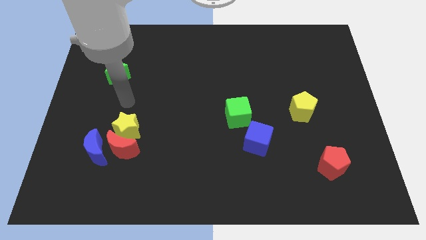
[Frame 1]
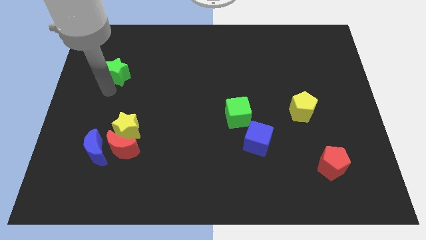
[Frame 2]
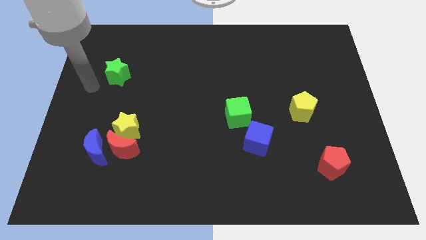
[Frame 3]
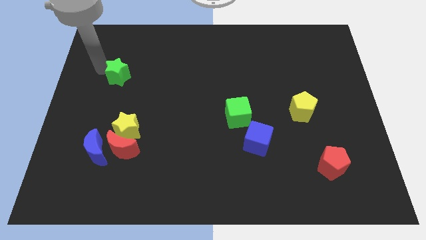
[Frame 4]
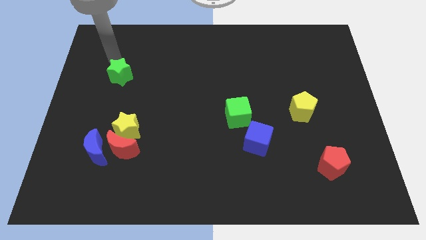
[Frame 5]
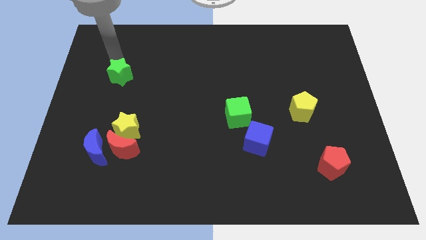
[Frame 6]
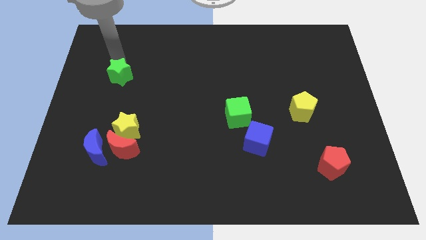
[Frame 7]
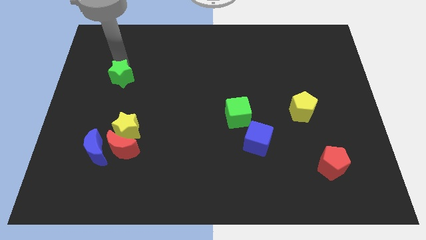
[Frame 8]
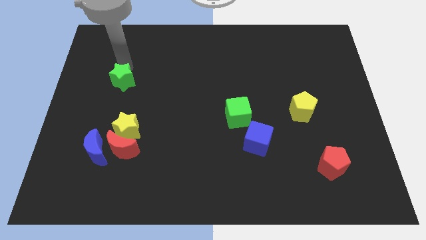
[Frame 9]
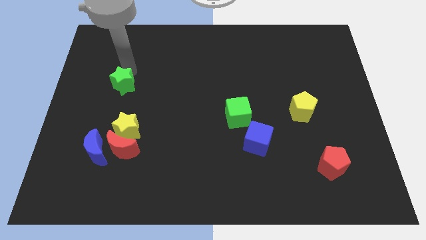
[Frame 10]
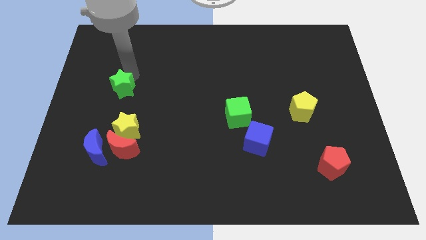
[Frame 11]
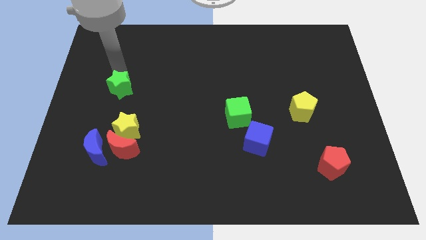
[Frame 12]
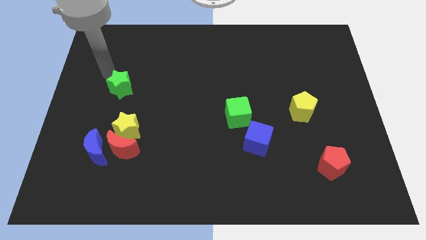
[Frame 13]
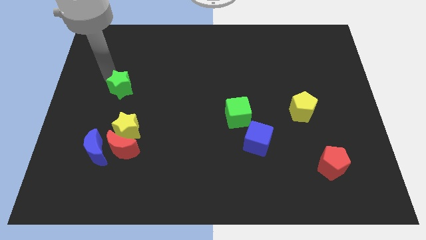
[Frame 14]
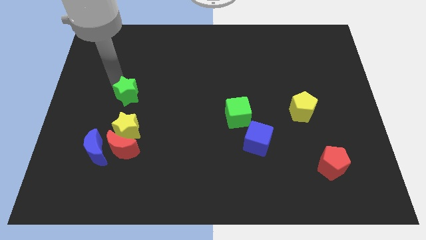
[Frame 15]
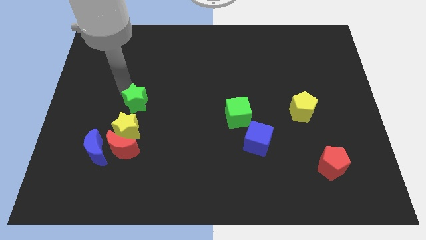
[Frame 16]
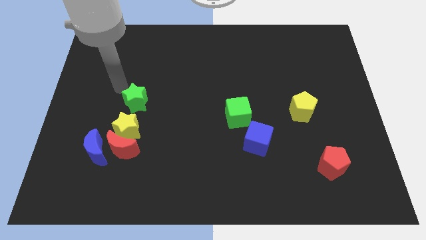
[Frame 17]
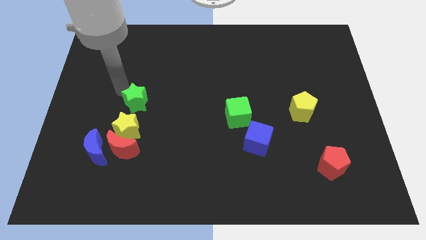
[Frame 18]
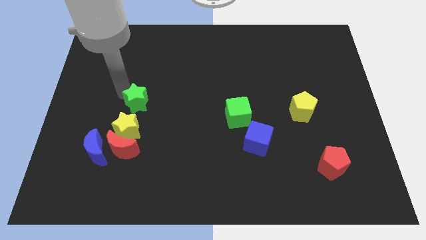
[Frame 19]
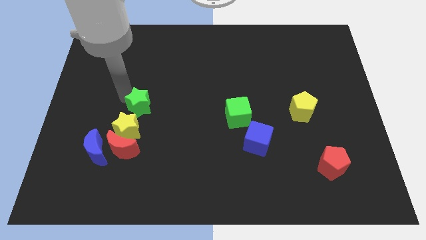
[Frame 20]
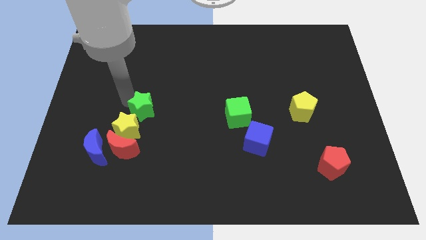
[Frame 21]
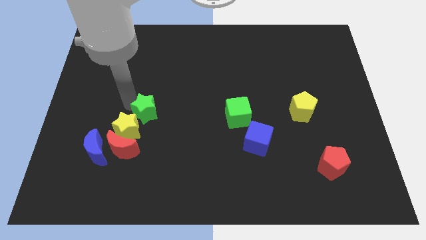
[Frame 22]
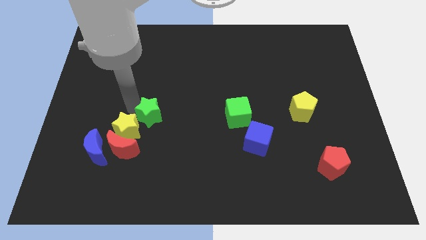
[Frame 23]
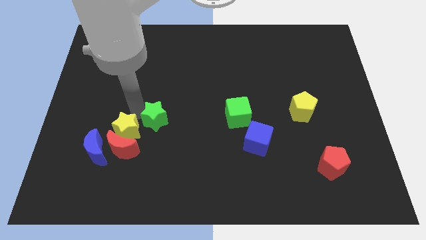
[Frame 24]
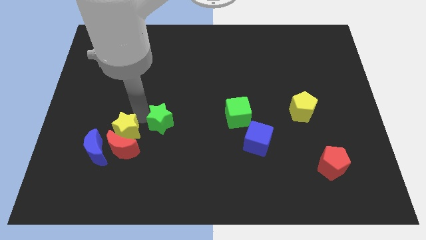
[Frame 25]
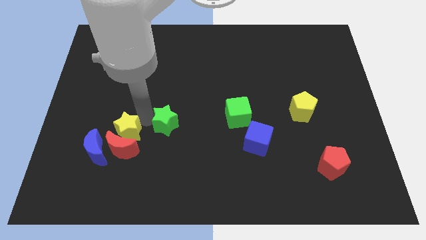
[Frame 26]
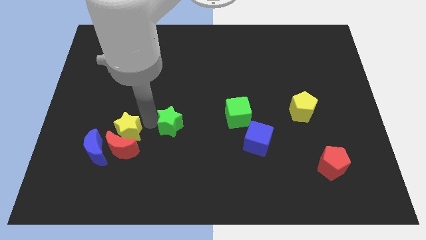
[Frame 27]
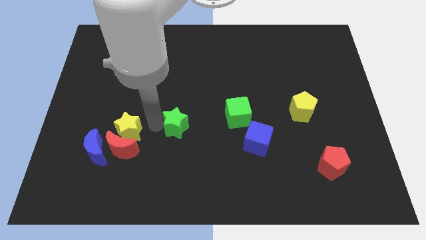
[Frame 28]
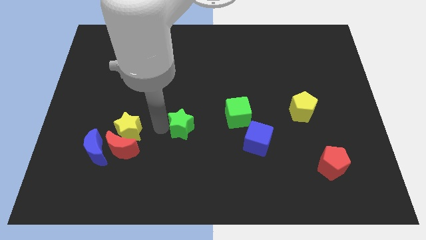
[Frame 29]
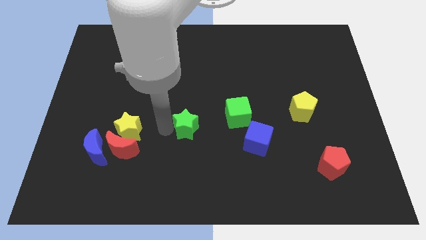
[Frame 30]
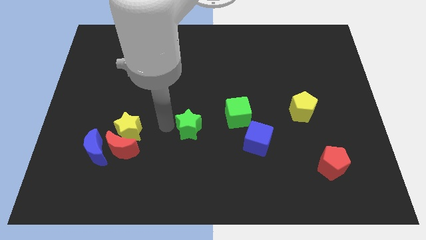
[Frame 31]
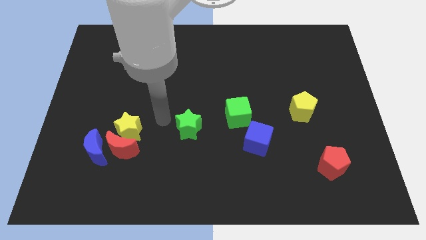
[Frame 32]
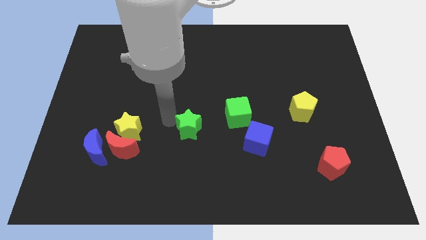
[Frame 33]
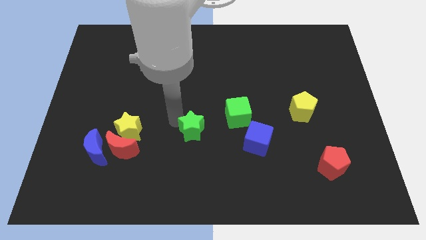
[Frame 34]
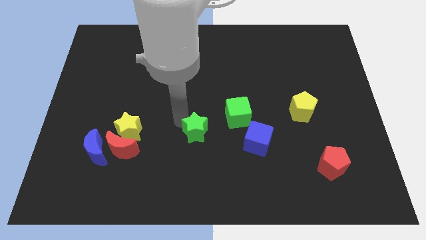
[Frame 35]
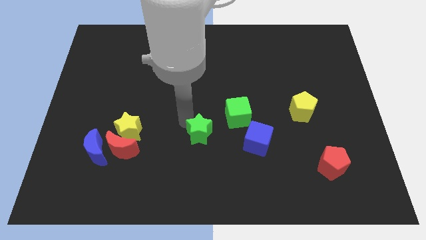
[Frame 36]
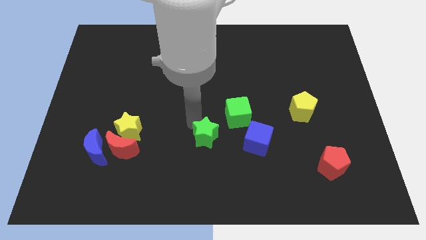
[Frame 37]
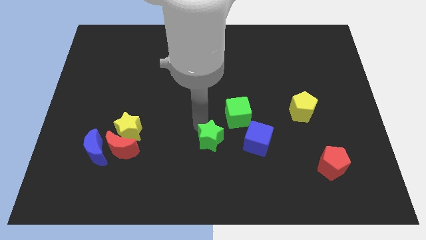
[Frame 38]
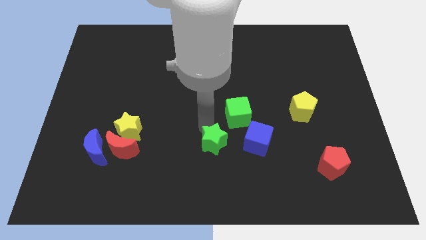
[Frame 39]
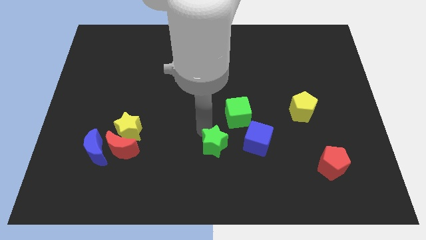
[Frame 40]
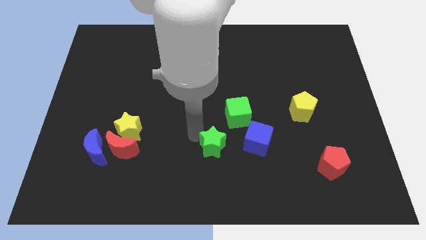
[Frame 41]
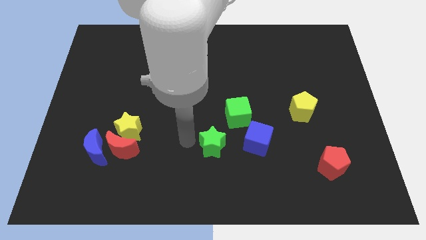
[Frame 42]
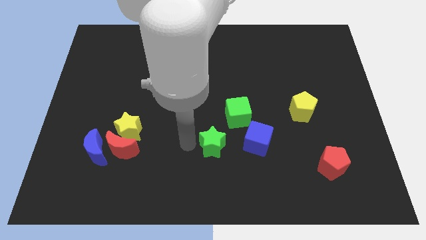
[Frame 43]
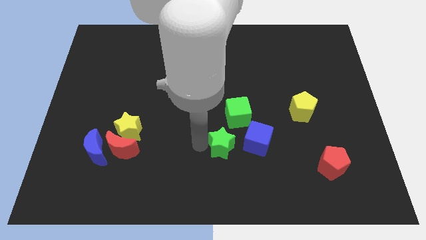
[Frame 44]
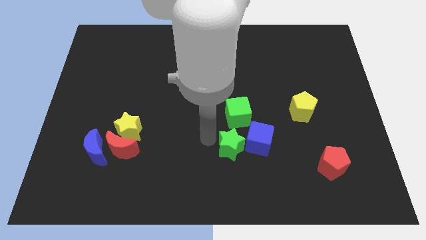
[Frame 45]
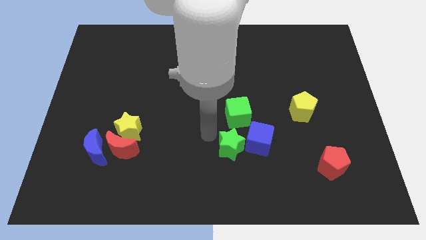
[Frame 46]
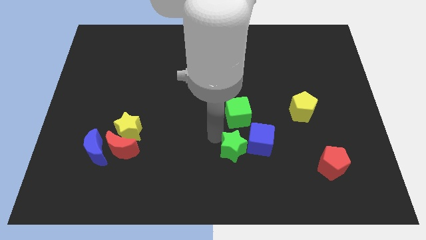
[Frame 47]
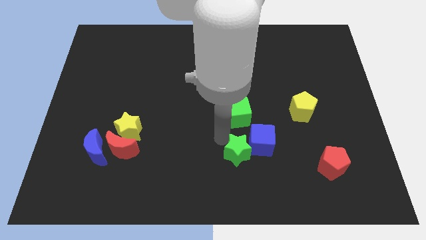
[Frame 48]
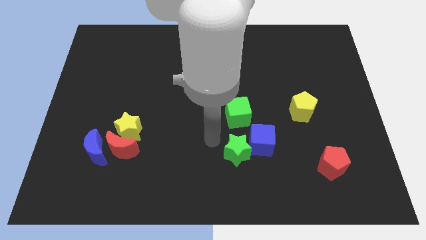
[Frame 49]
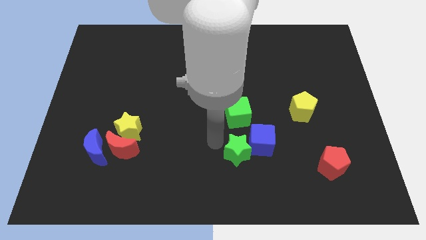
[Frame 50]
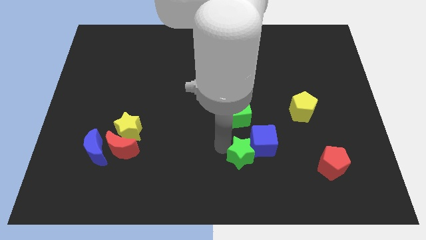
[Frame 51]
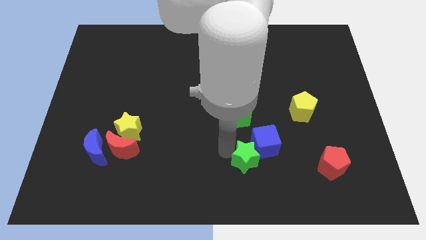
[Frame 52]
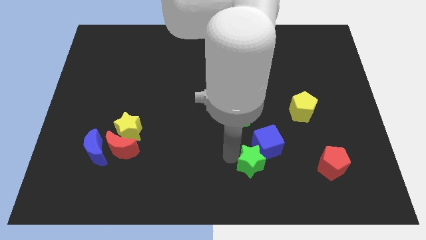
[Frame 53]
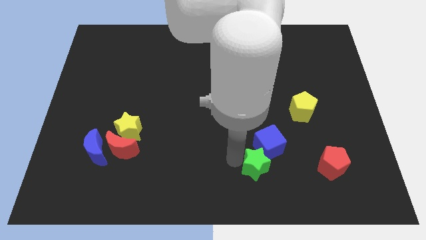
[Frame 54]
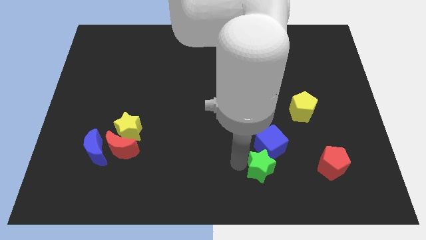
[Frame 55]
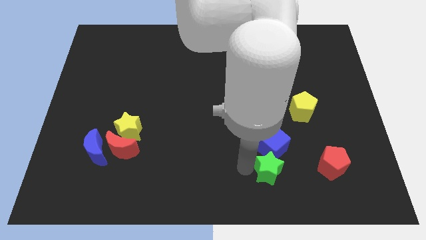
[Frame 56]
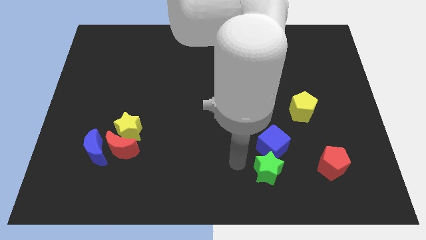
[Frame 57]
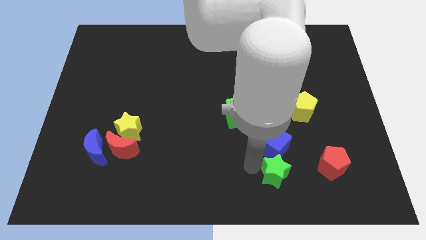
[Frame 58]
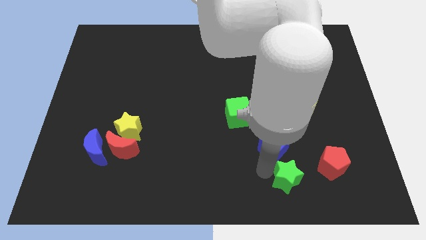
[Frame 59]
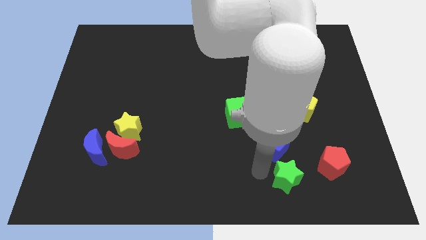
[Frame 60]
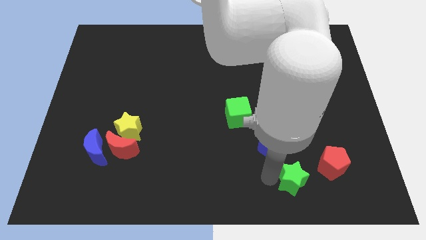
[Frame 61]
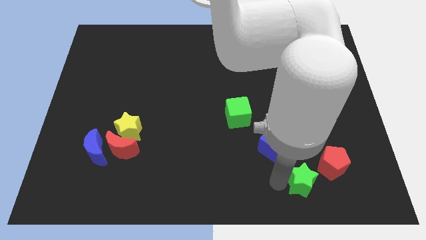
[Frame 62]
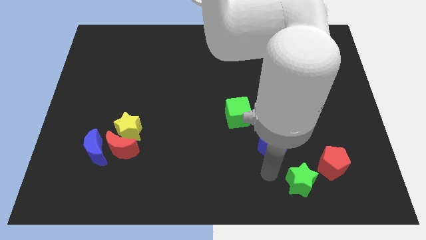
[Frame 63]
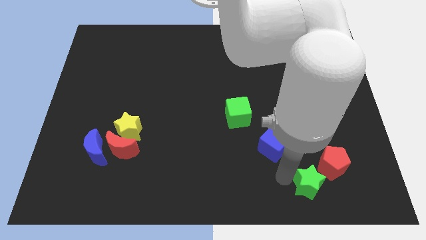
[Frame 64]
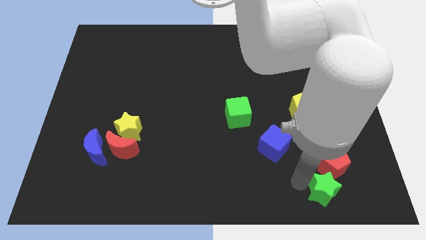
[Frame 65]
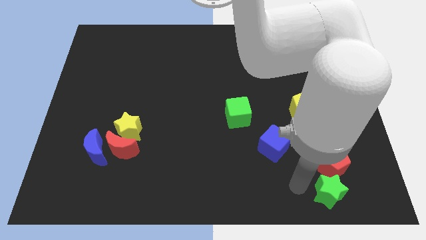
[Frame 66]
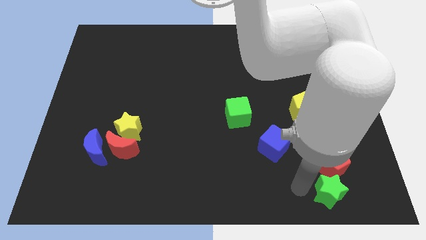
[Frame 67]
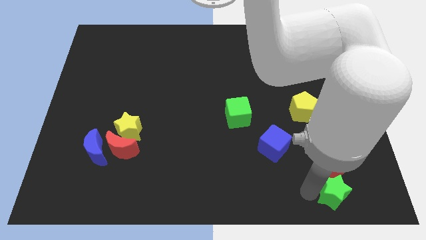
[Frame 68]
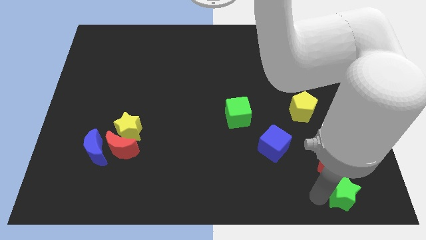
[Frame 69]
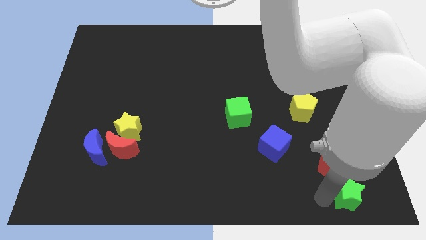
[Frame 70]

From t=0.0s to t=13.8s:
put the green star to the lower right corner
